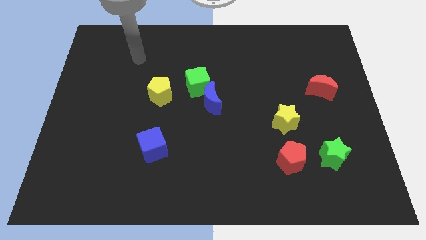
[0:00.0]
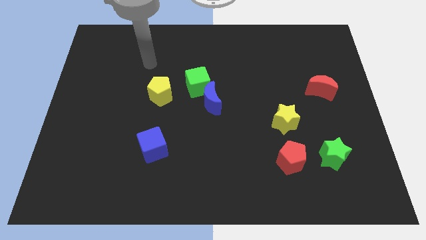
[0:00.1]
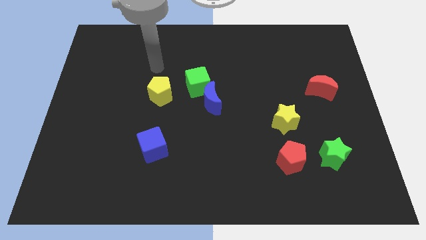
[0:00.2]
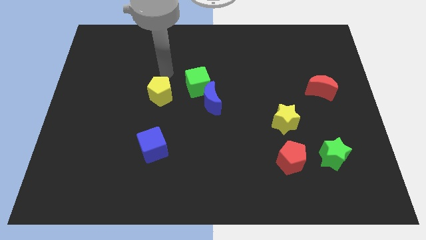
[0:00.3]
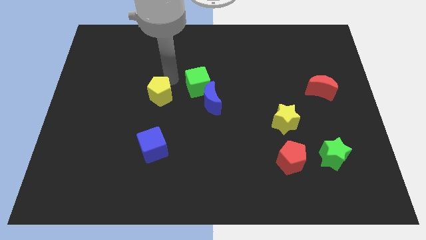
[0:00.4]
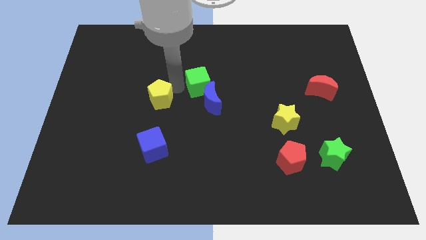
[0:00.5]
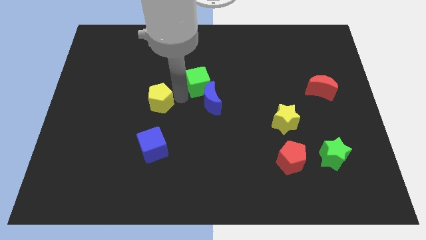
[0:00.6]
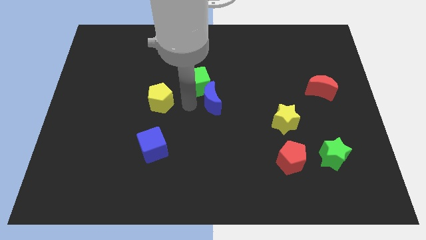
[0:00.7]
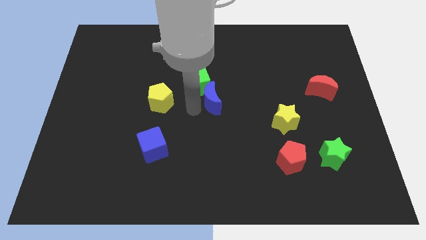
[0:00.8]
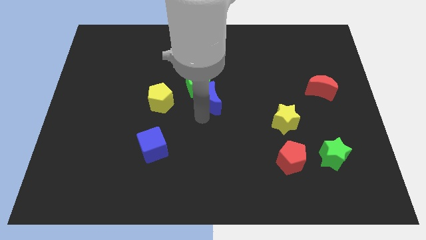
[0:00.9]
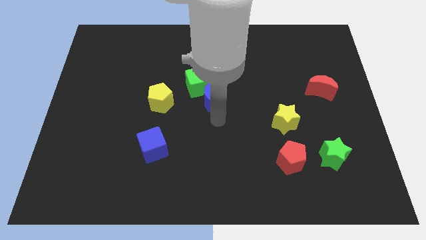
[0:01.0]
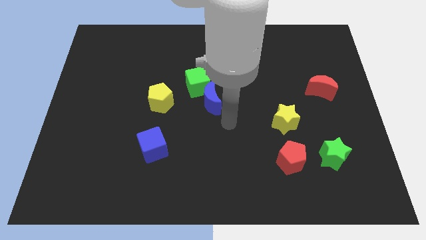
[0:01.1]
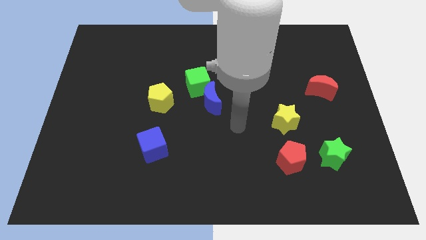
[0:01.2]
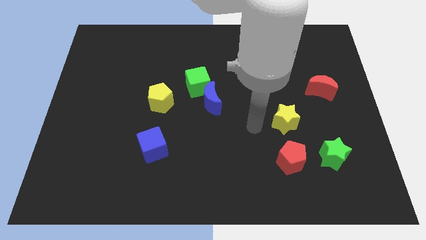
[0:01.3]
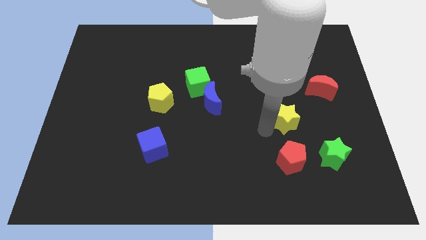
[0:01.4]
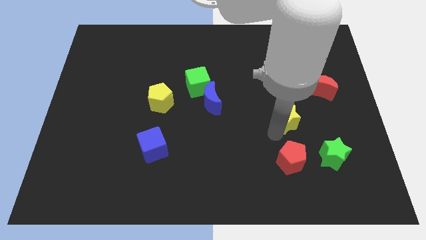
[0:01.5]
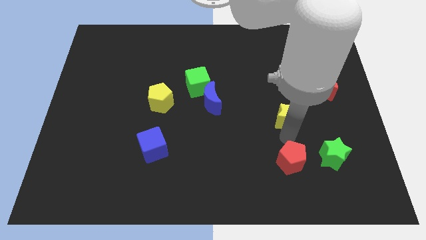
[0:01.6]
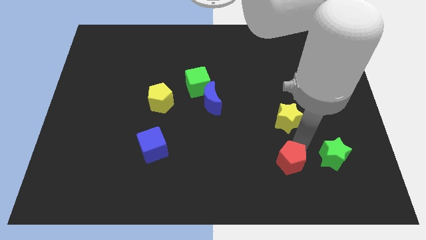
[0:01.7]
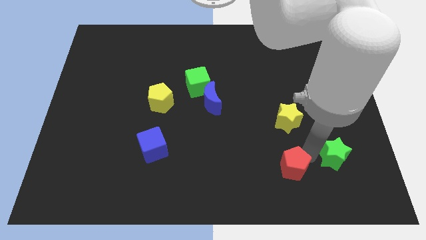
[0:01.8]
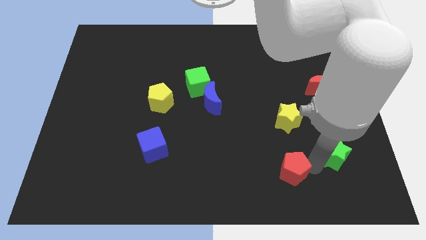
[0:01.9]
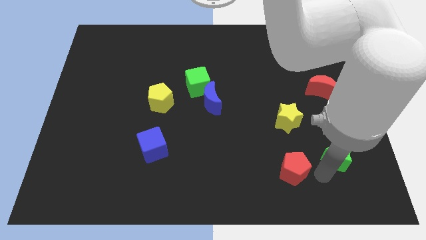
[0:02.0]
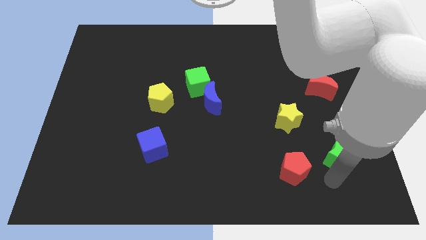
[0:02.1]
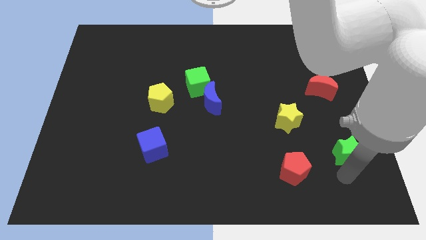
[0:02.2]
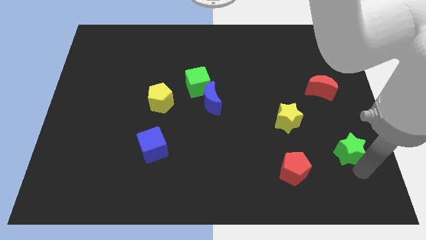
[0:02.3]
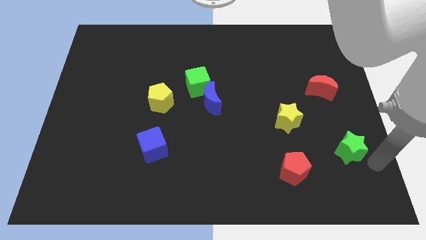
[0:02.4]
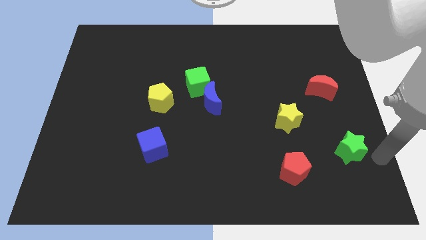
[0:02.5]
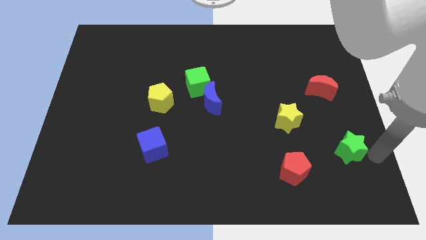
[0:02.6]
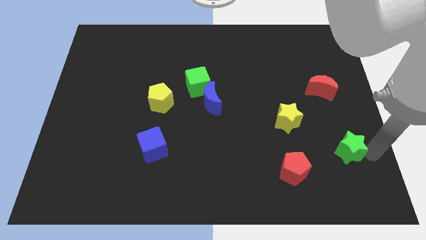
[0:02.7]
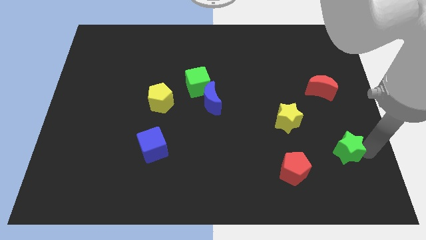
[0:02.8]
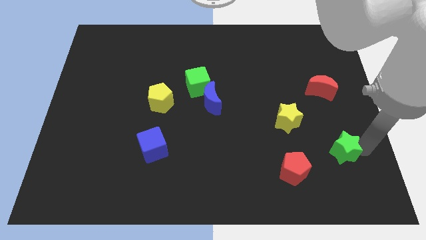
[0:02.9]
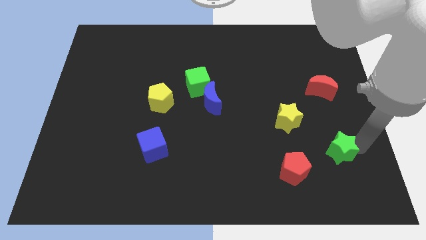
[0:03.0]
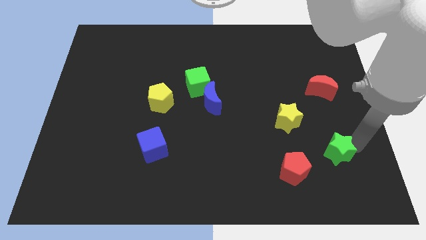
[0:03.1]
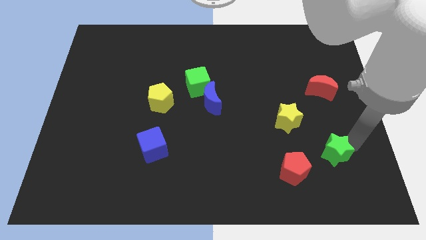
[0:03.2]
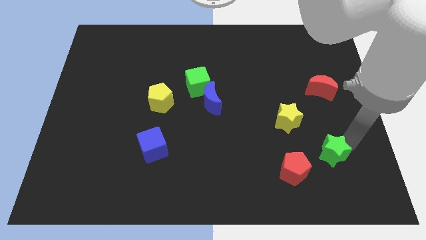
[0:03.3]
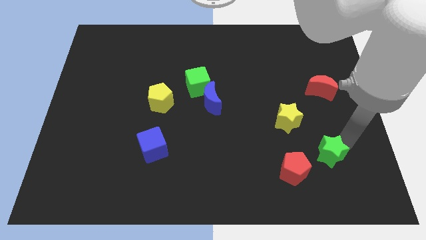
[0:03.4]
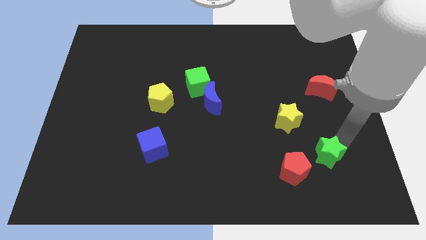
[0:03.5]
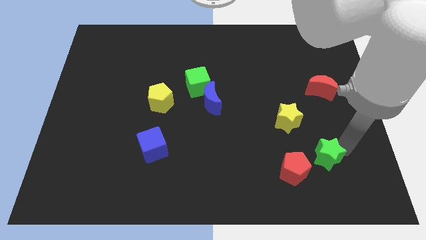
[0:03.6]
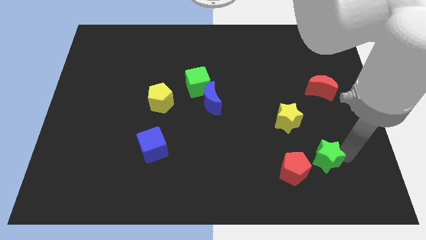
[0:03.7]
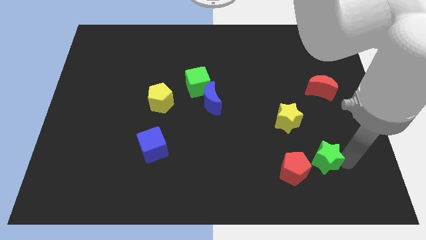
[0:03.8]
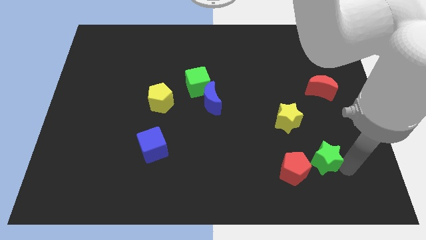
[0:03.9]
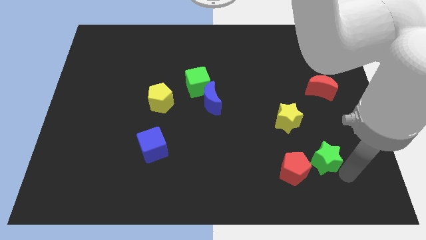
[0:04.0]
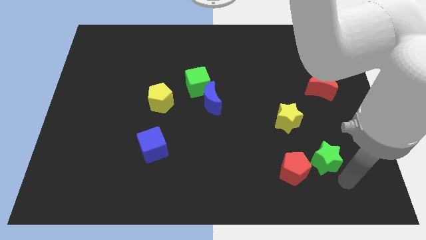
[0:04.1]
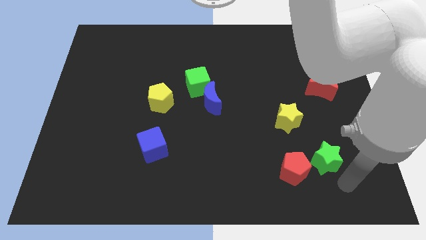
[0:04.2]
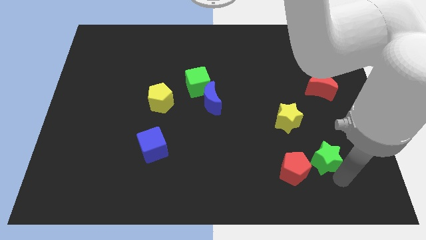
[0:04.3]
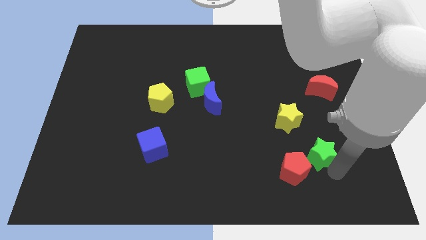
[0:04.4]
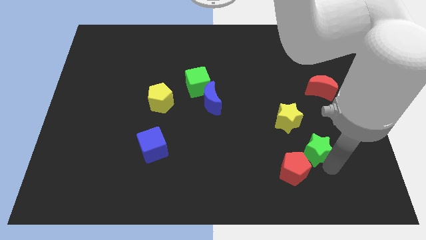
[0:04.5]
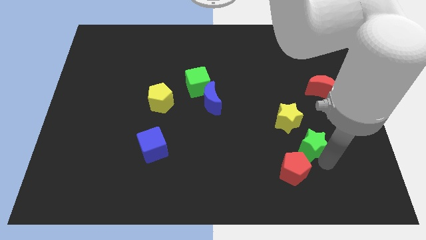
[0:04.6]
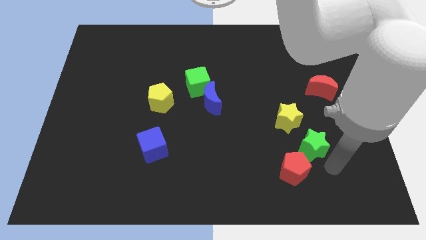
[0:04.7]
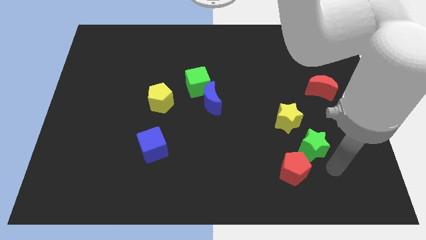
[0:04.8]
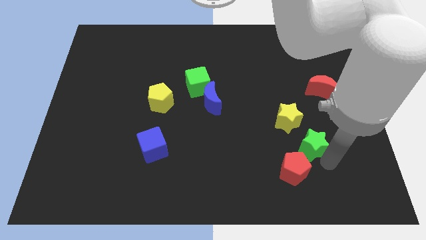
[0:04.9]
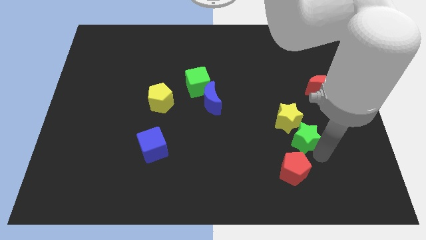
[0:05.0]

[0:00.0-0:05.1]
put the green star next to the yellow star

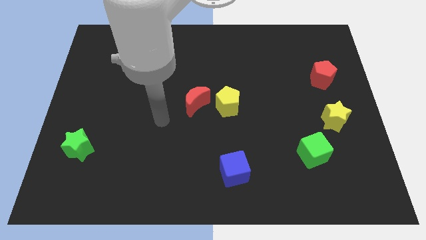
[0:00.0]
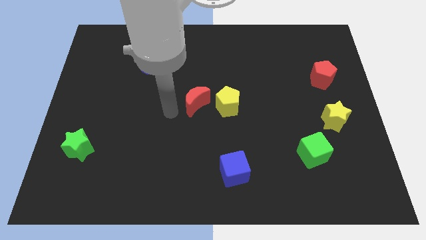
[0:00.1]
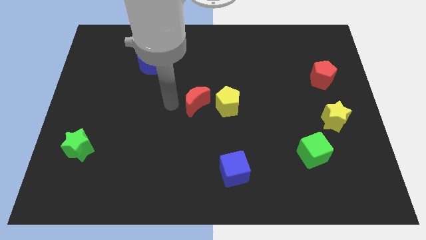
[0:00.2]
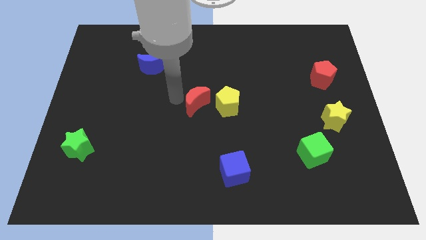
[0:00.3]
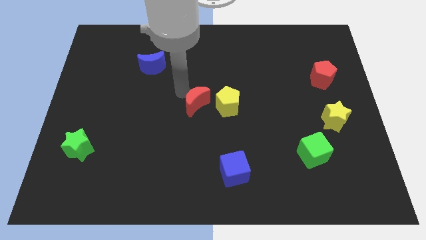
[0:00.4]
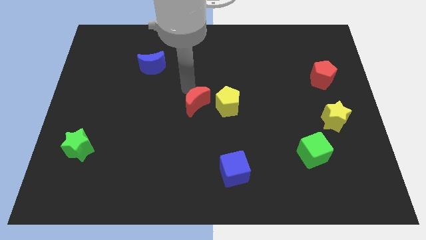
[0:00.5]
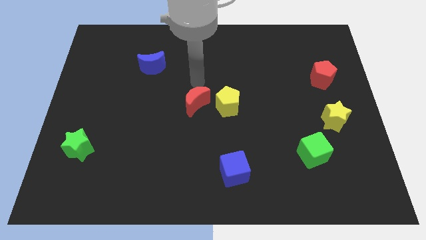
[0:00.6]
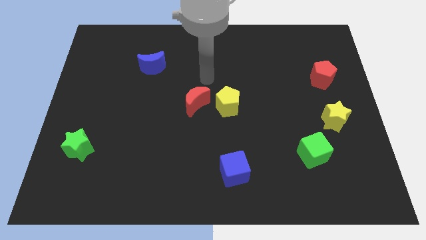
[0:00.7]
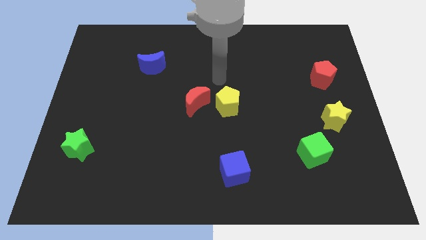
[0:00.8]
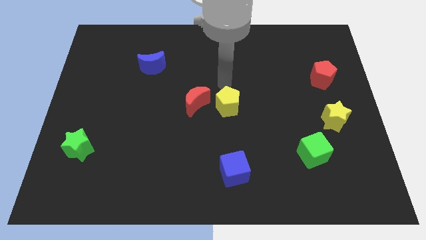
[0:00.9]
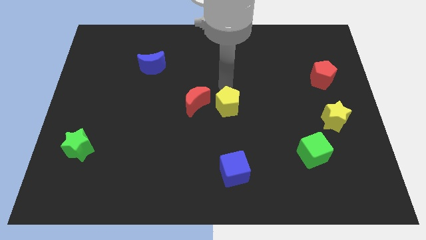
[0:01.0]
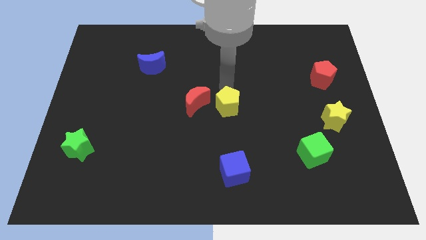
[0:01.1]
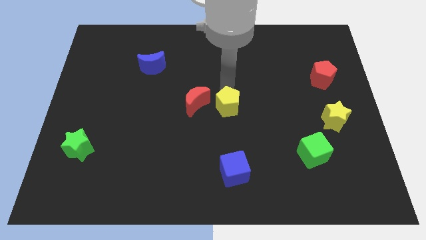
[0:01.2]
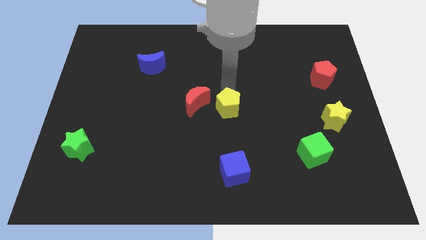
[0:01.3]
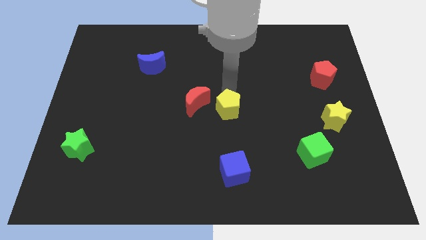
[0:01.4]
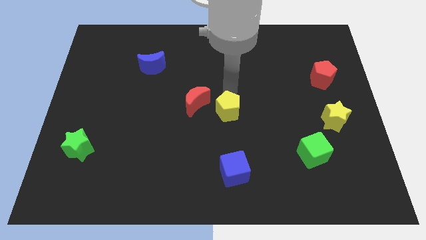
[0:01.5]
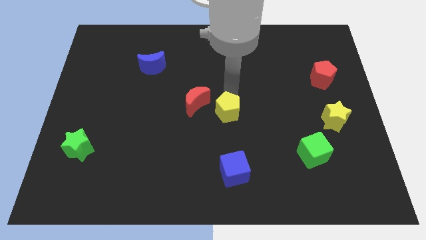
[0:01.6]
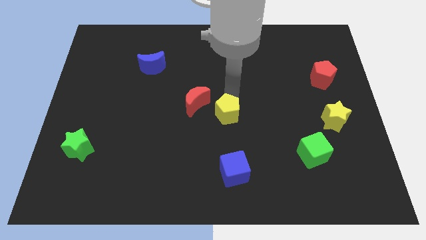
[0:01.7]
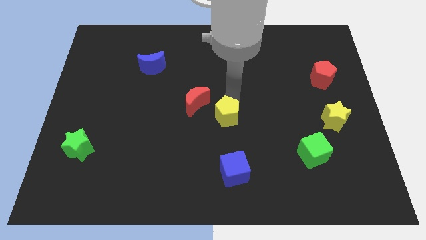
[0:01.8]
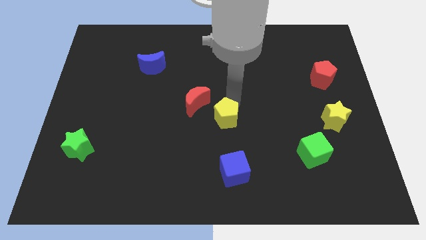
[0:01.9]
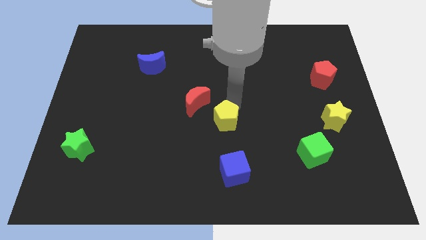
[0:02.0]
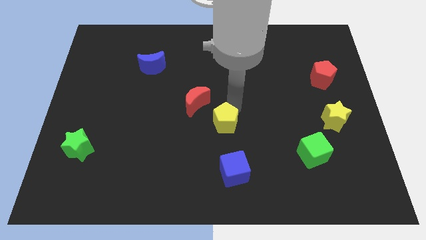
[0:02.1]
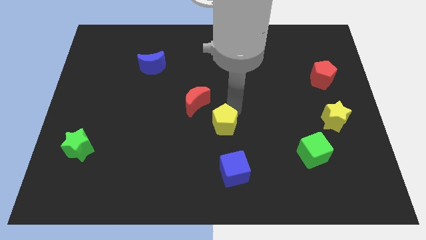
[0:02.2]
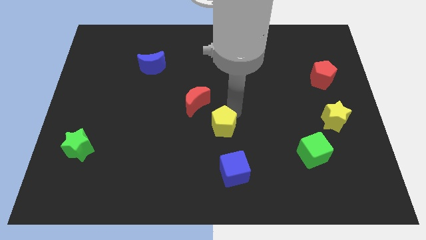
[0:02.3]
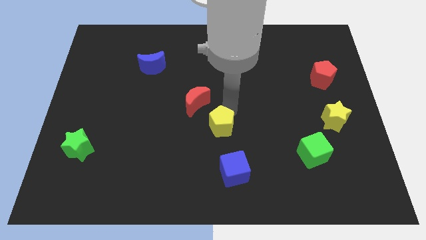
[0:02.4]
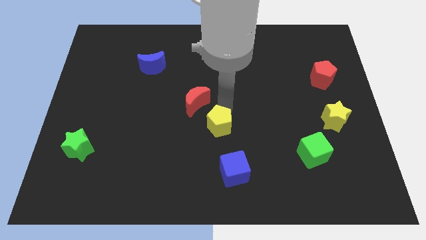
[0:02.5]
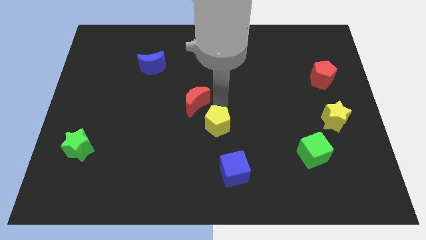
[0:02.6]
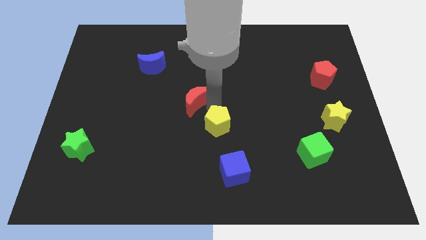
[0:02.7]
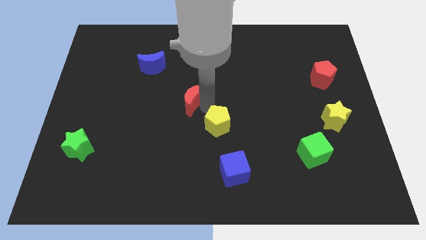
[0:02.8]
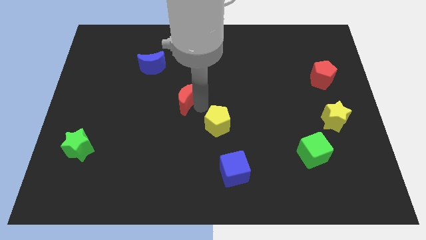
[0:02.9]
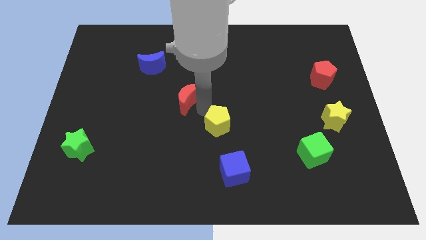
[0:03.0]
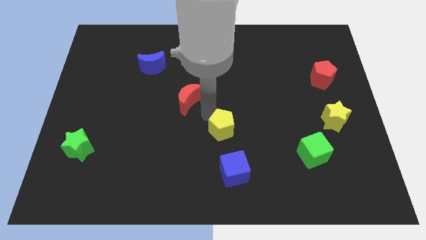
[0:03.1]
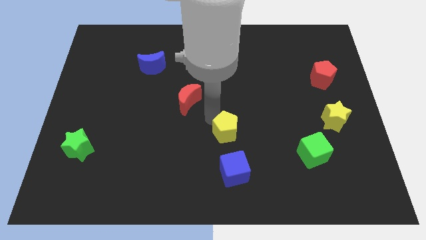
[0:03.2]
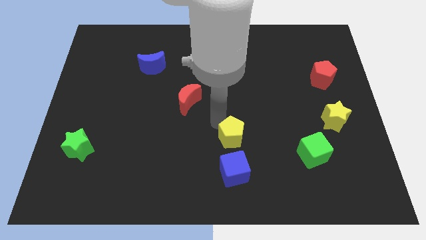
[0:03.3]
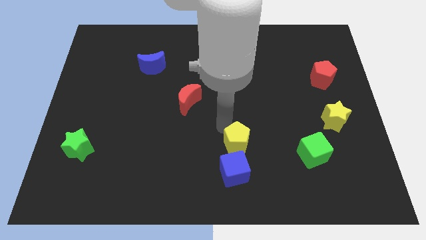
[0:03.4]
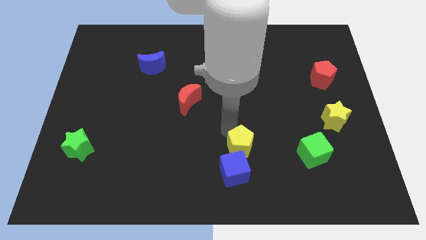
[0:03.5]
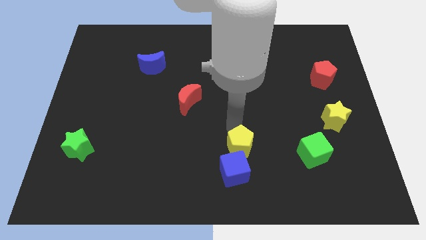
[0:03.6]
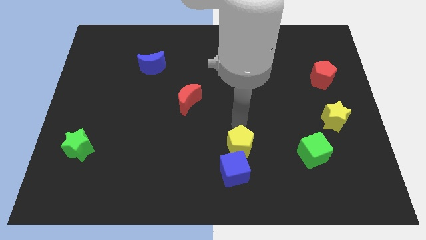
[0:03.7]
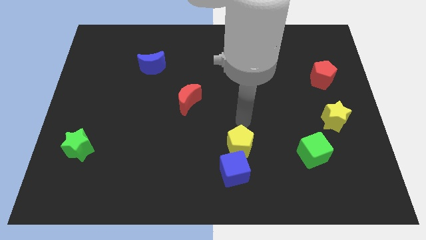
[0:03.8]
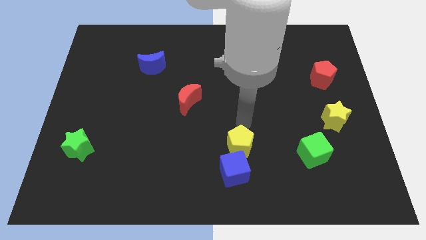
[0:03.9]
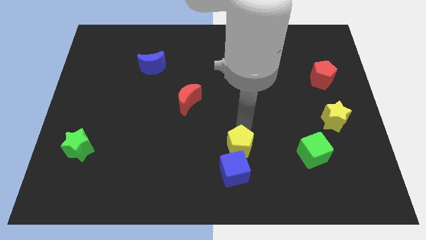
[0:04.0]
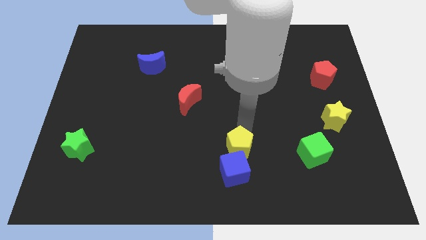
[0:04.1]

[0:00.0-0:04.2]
push the yellow pentagon to the blue cube
